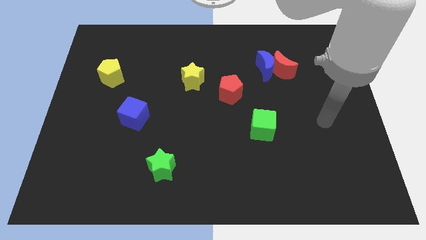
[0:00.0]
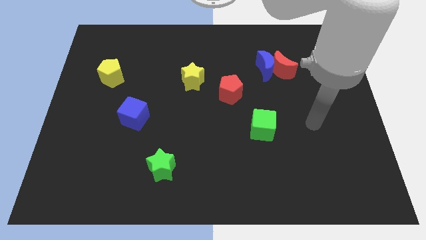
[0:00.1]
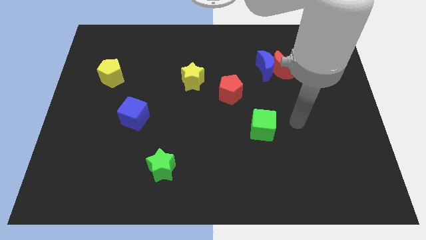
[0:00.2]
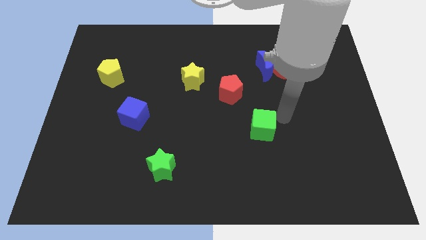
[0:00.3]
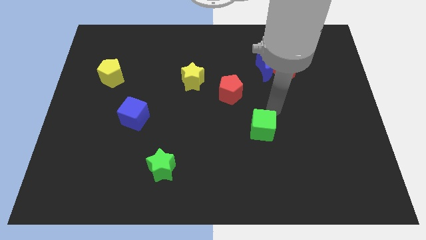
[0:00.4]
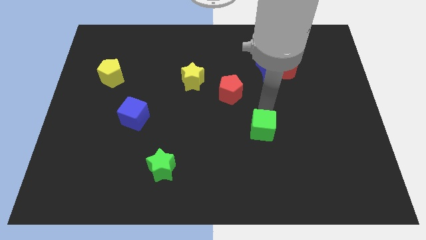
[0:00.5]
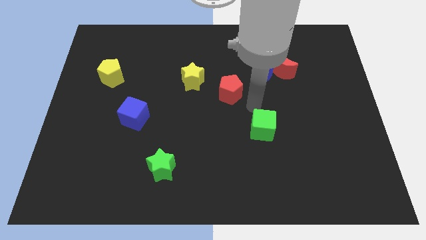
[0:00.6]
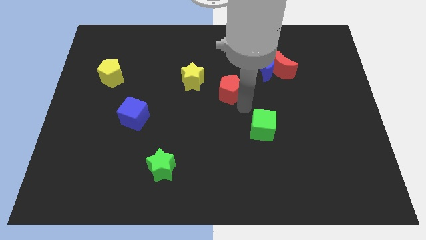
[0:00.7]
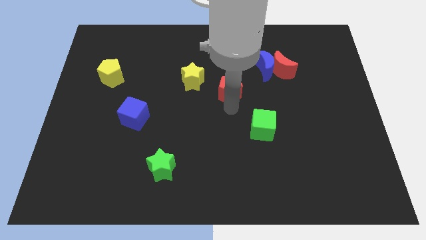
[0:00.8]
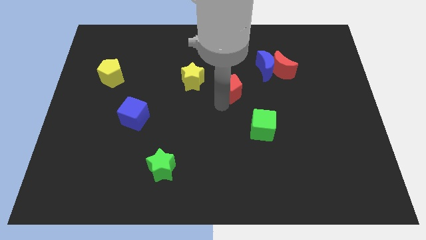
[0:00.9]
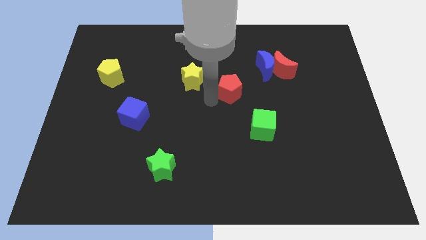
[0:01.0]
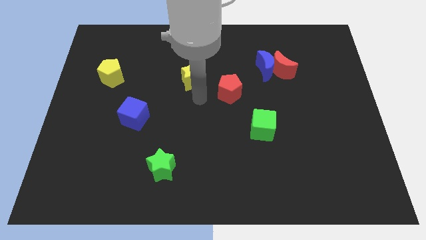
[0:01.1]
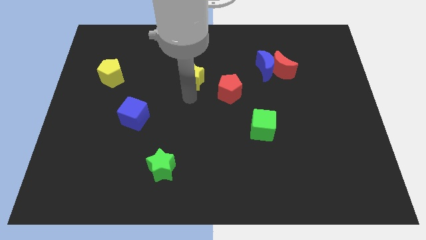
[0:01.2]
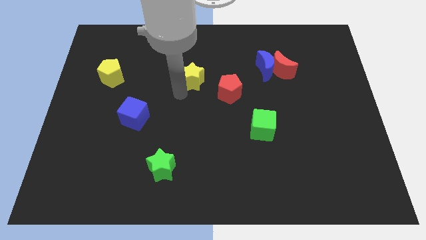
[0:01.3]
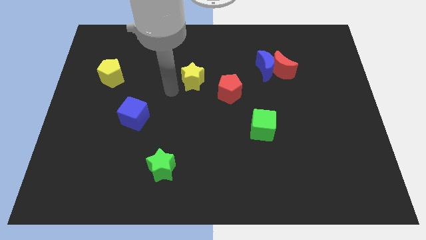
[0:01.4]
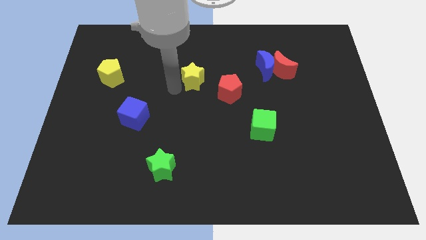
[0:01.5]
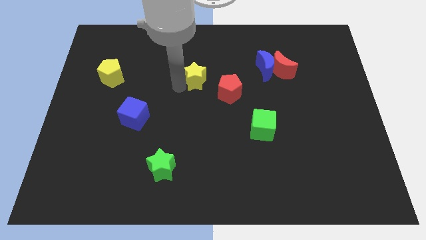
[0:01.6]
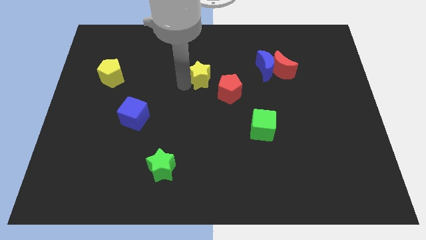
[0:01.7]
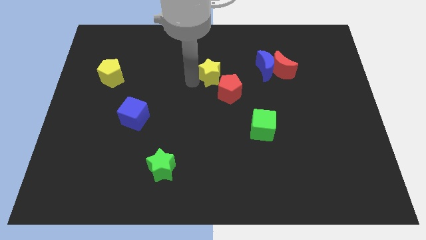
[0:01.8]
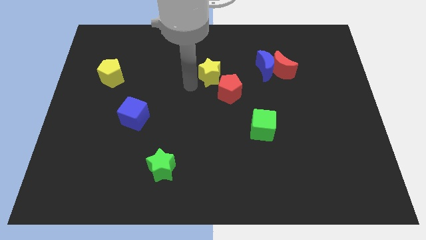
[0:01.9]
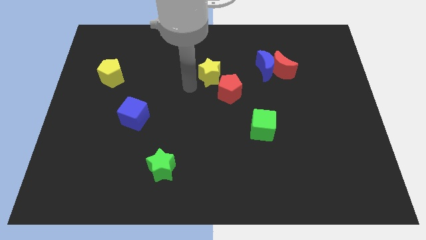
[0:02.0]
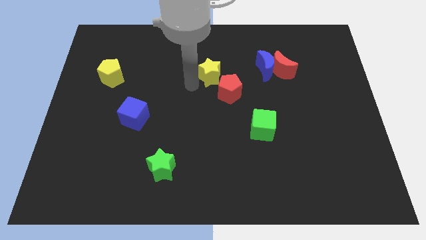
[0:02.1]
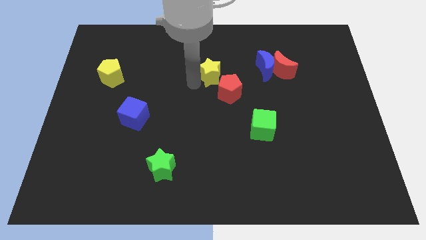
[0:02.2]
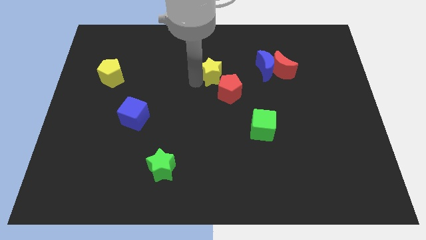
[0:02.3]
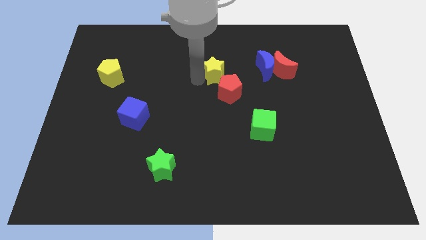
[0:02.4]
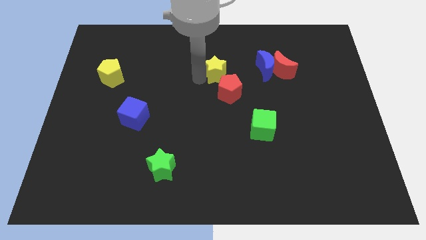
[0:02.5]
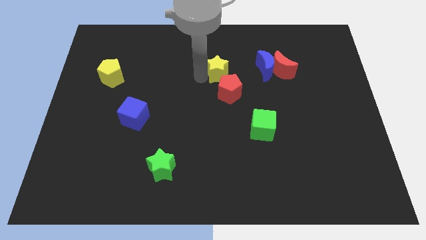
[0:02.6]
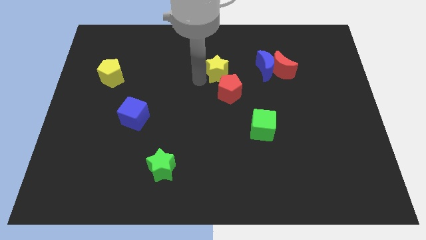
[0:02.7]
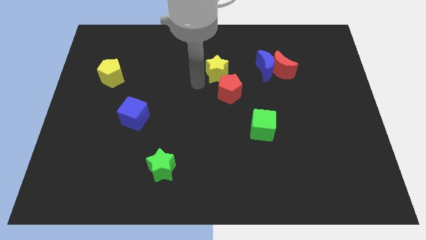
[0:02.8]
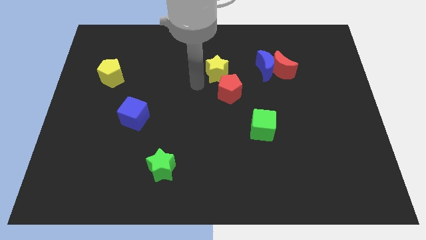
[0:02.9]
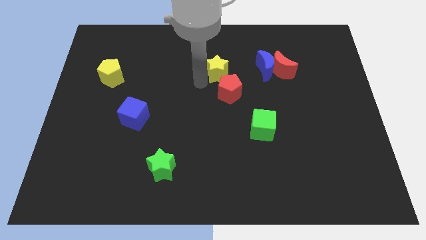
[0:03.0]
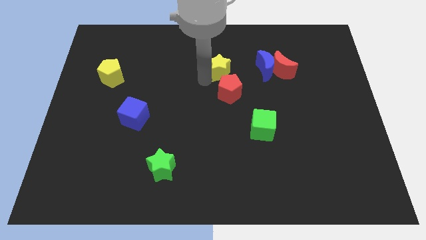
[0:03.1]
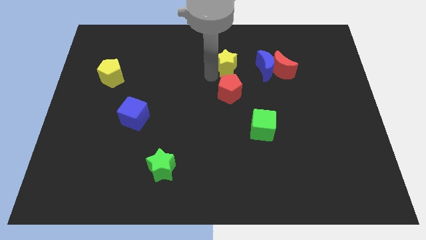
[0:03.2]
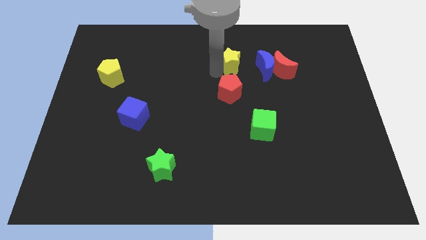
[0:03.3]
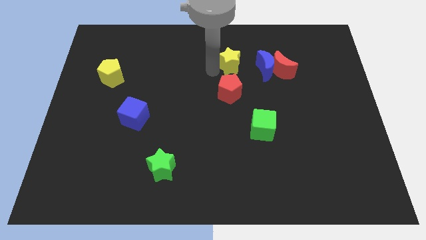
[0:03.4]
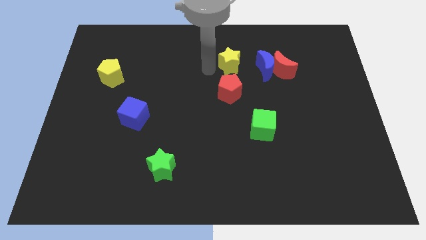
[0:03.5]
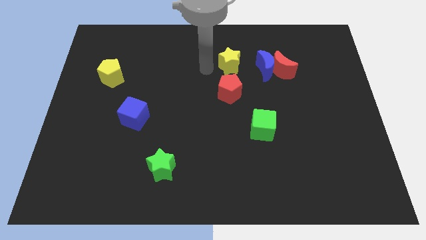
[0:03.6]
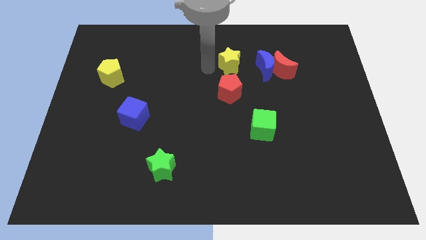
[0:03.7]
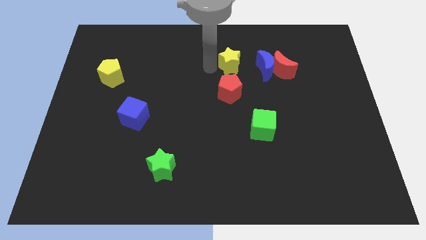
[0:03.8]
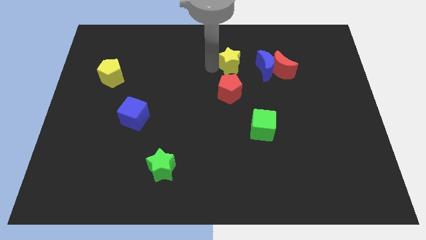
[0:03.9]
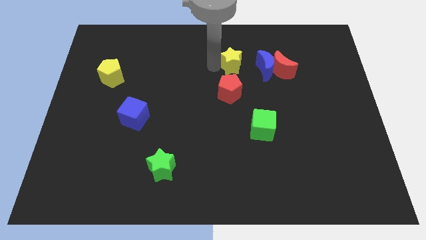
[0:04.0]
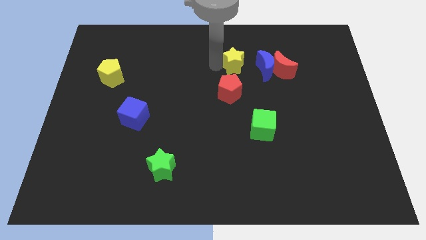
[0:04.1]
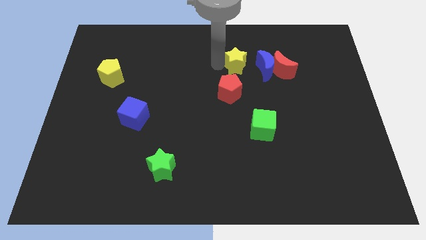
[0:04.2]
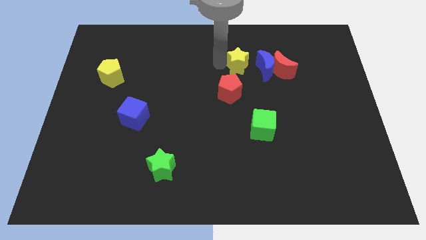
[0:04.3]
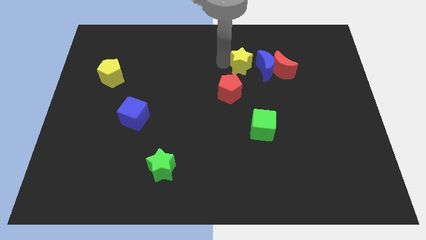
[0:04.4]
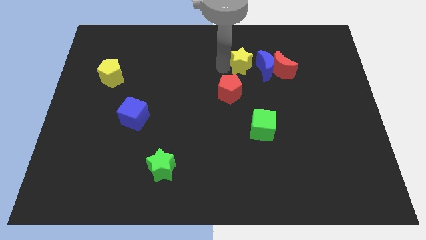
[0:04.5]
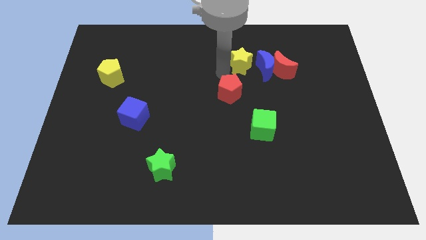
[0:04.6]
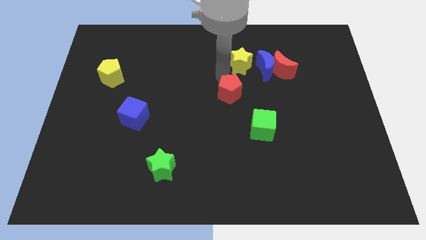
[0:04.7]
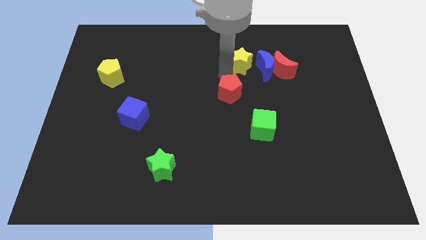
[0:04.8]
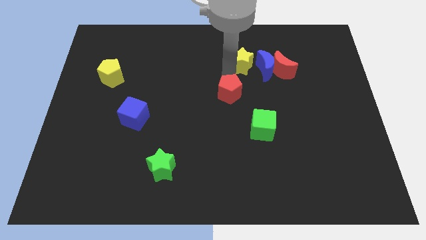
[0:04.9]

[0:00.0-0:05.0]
push the yellow star towards the blue moon

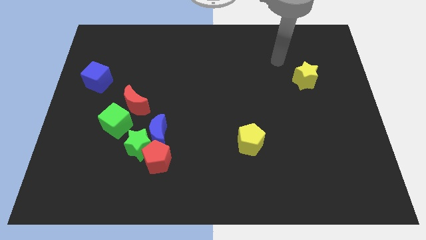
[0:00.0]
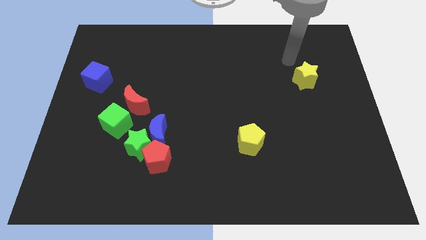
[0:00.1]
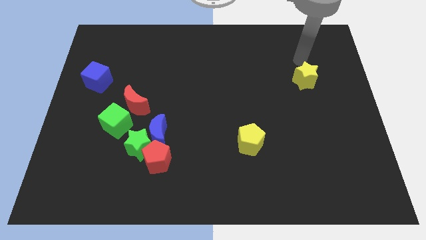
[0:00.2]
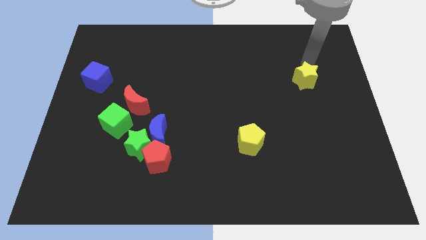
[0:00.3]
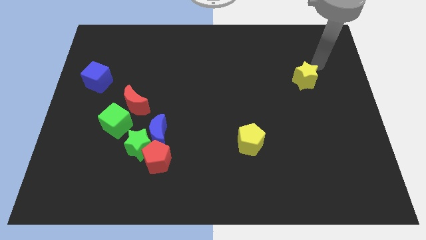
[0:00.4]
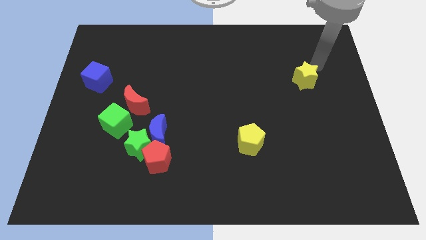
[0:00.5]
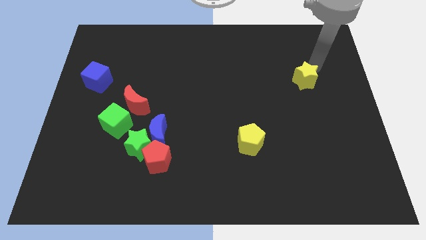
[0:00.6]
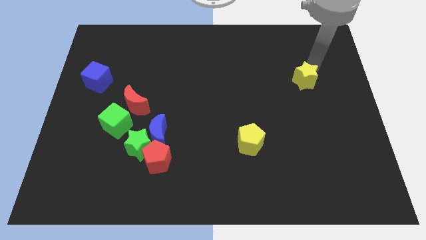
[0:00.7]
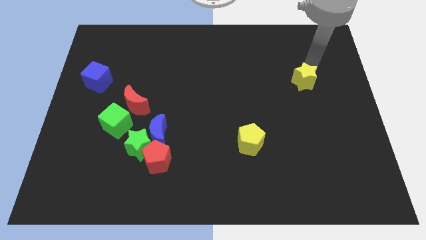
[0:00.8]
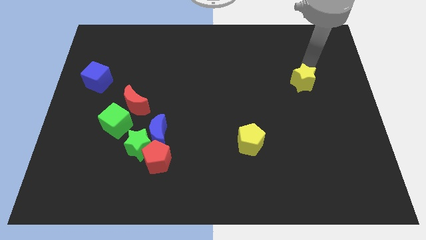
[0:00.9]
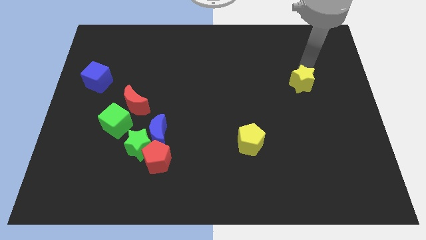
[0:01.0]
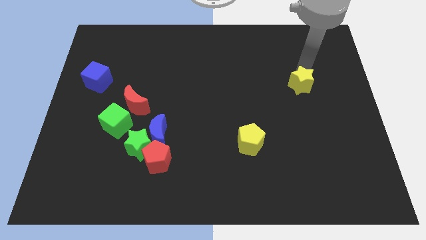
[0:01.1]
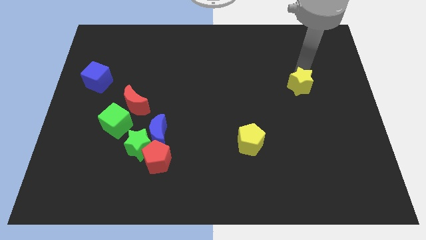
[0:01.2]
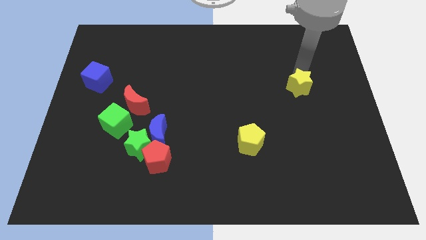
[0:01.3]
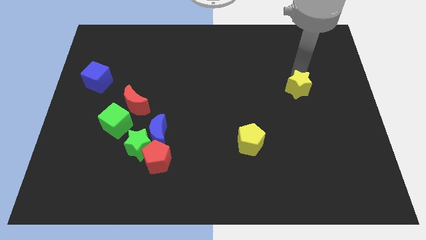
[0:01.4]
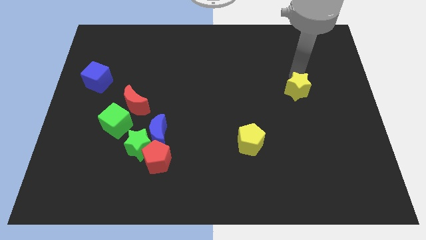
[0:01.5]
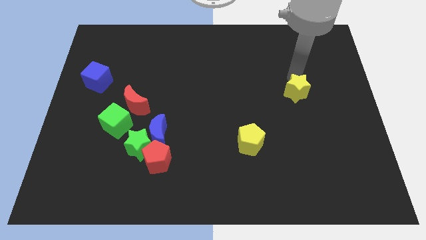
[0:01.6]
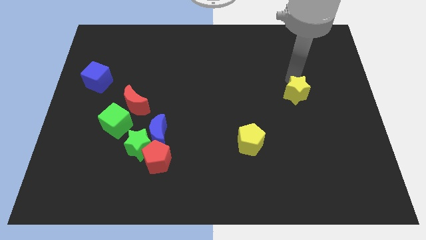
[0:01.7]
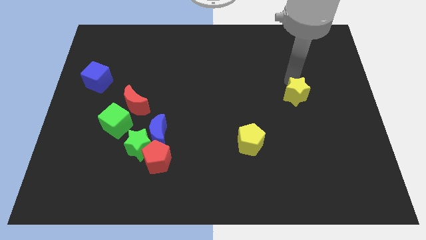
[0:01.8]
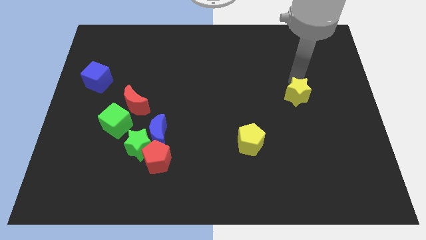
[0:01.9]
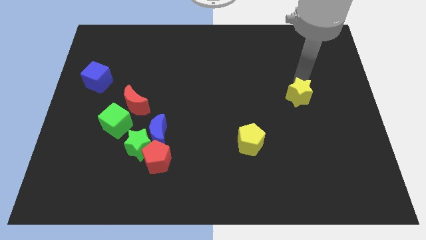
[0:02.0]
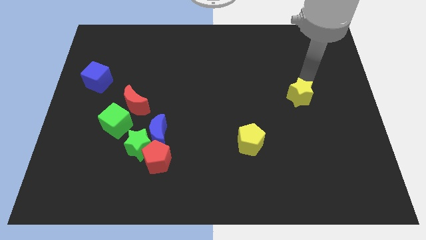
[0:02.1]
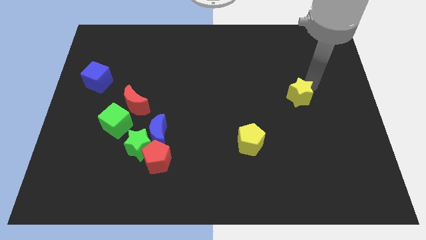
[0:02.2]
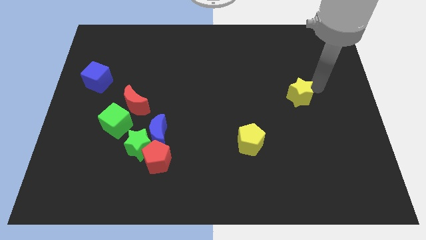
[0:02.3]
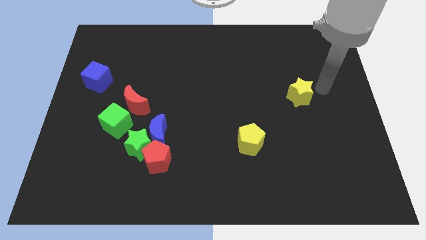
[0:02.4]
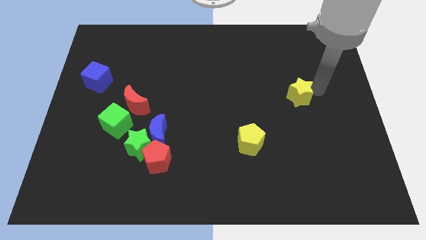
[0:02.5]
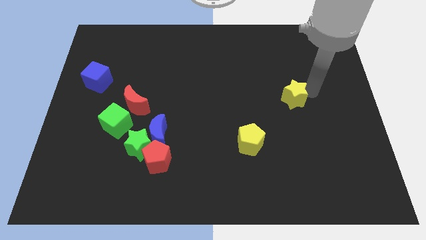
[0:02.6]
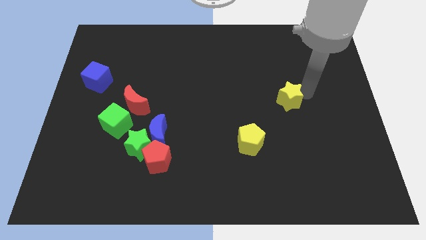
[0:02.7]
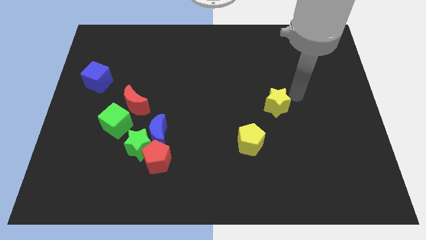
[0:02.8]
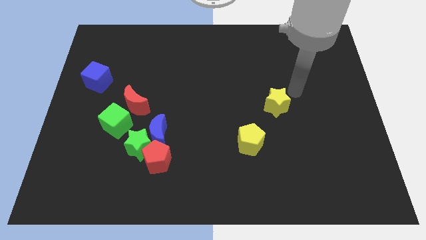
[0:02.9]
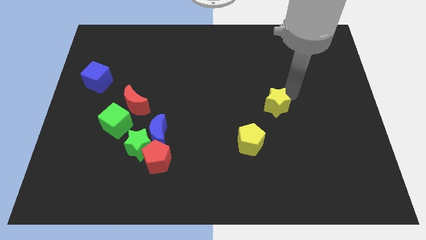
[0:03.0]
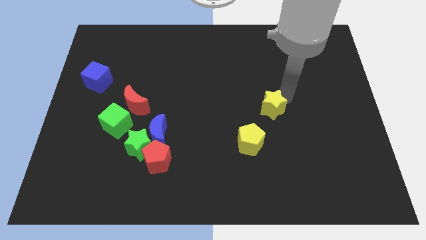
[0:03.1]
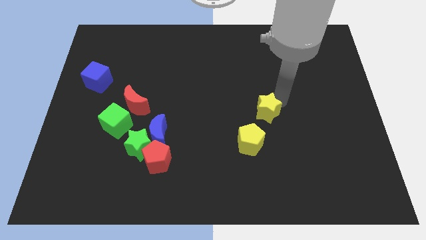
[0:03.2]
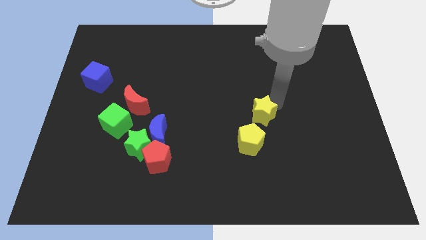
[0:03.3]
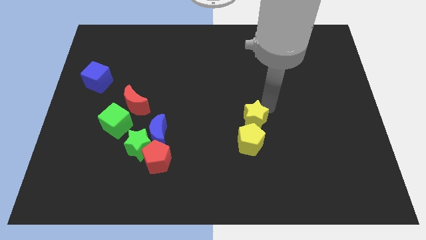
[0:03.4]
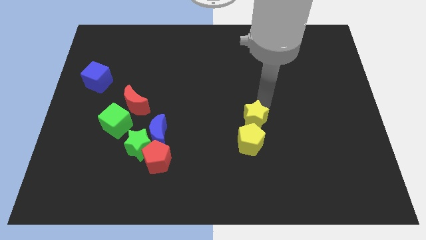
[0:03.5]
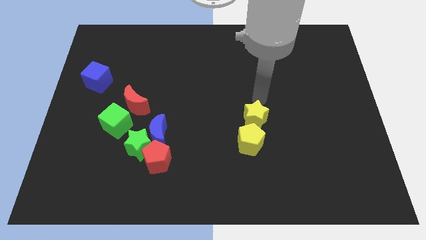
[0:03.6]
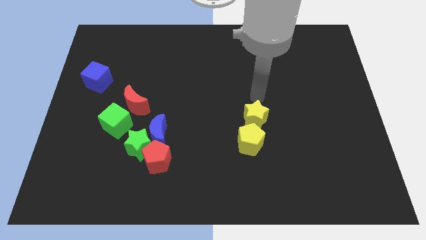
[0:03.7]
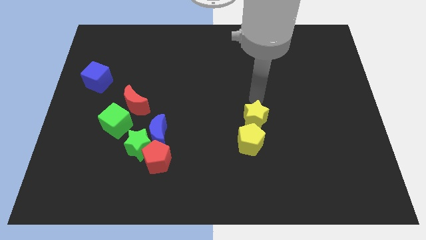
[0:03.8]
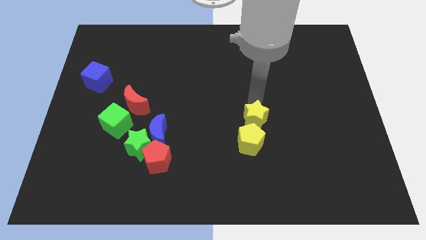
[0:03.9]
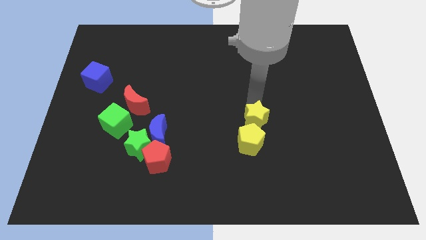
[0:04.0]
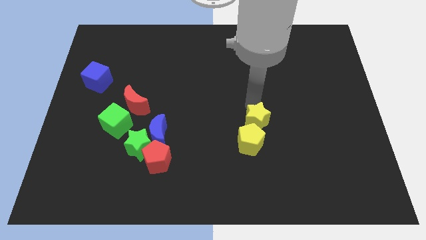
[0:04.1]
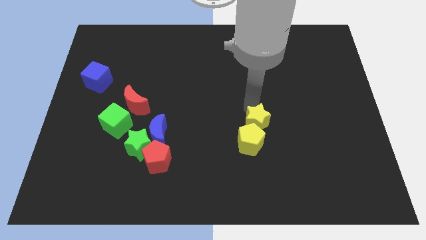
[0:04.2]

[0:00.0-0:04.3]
put the yellow star close to the yellow pentagon
